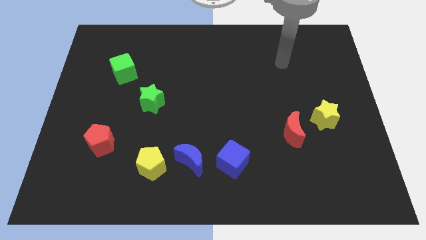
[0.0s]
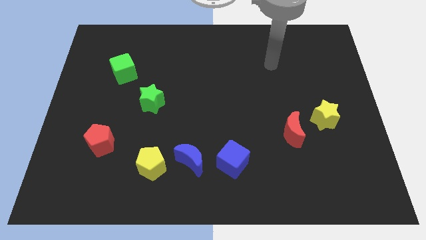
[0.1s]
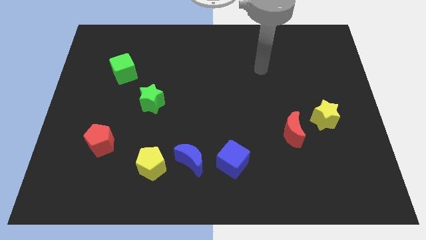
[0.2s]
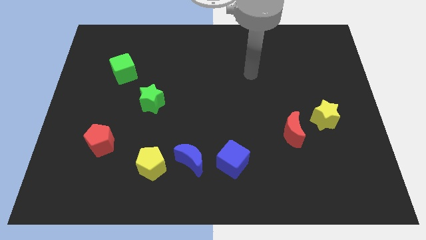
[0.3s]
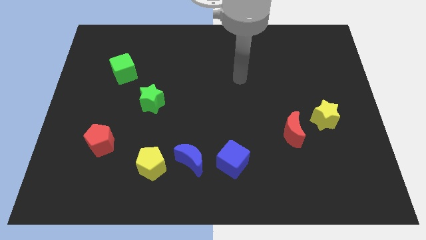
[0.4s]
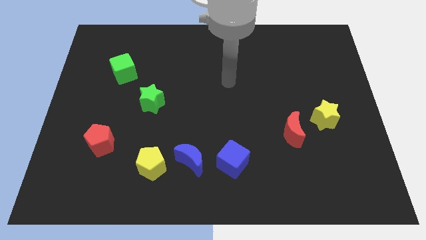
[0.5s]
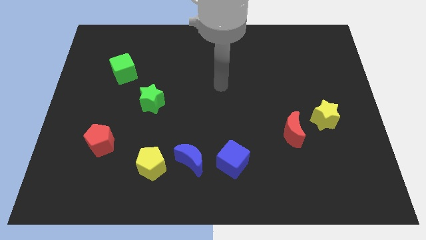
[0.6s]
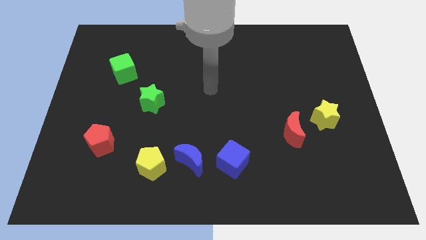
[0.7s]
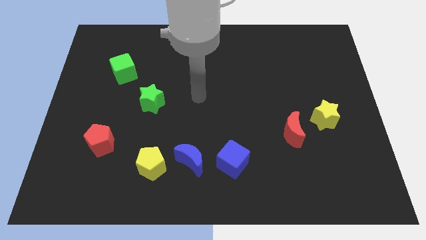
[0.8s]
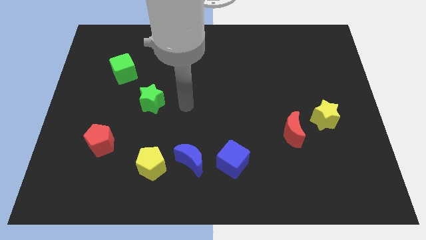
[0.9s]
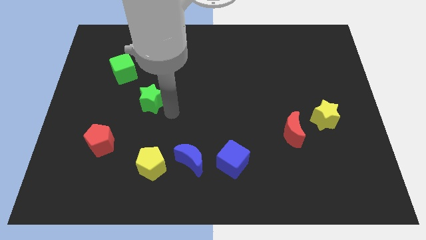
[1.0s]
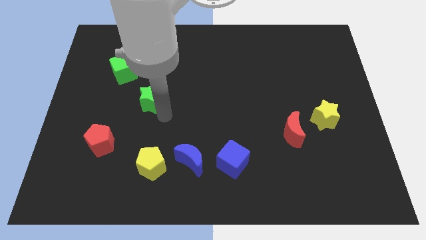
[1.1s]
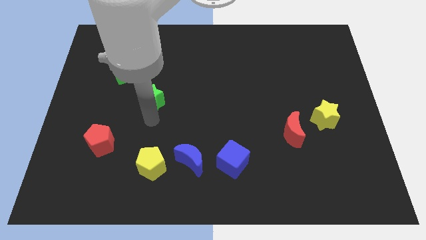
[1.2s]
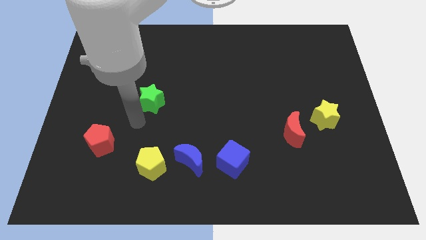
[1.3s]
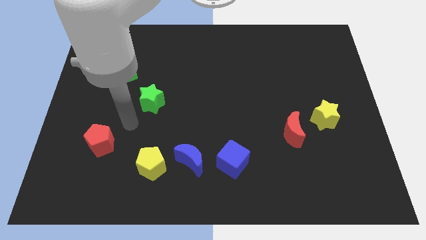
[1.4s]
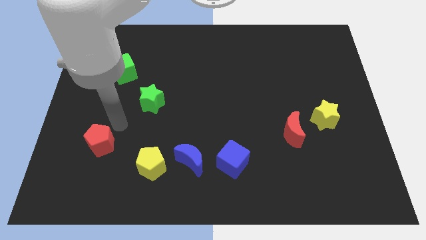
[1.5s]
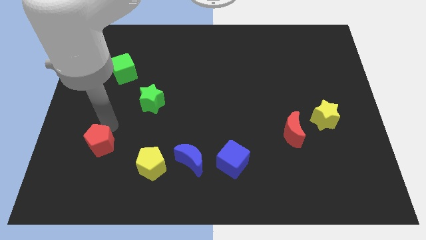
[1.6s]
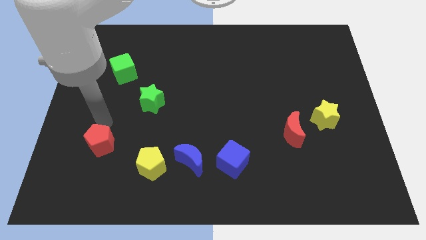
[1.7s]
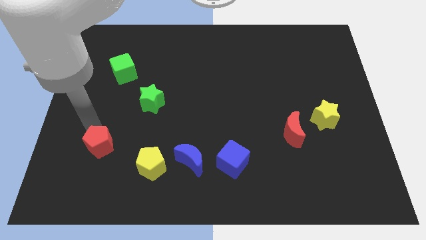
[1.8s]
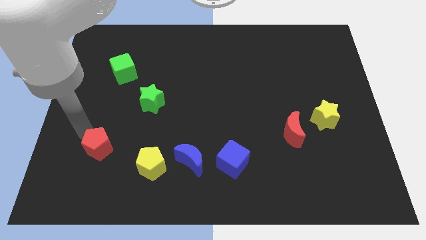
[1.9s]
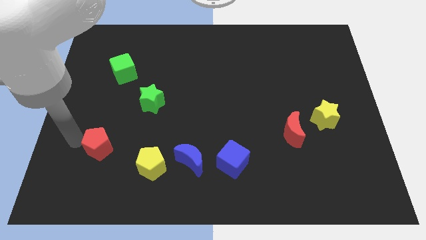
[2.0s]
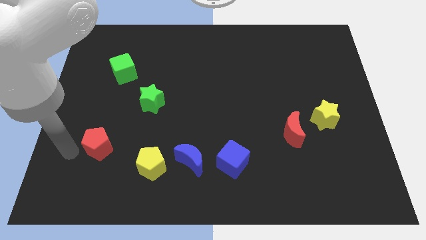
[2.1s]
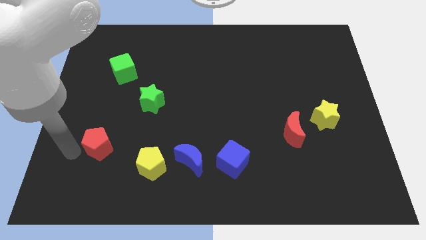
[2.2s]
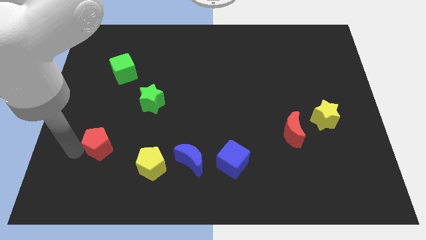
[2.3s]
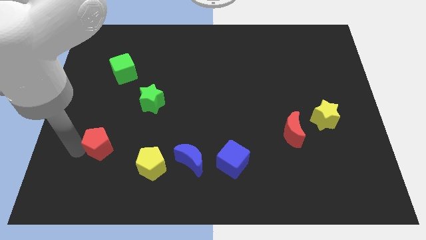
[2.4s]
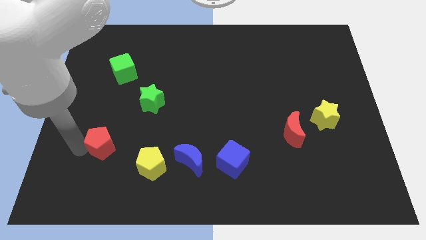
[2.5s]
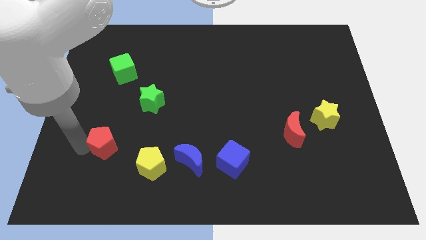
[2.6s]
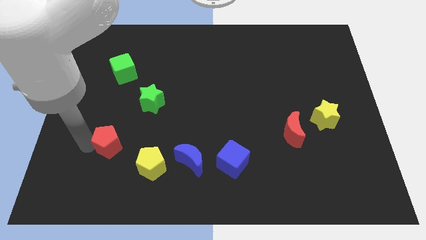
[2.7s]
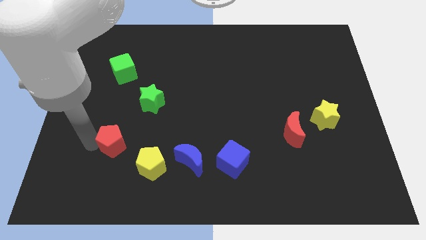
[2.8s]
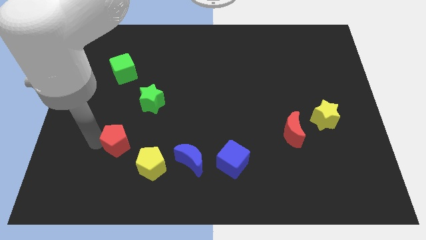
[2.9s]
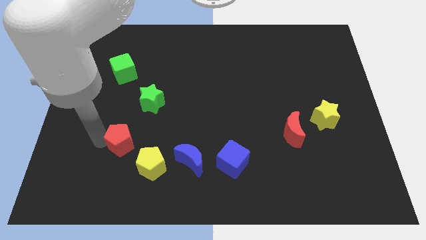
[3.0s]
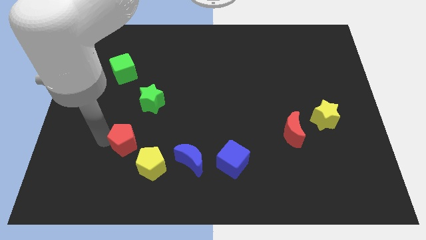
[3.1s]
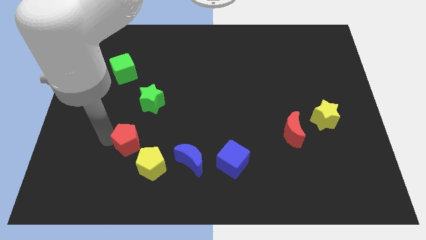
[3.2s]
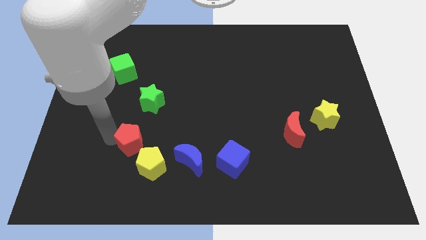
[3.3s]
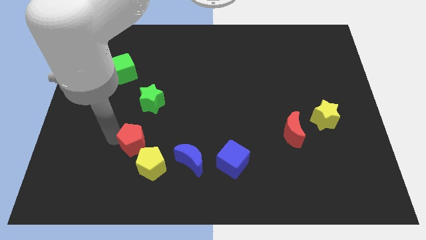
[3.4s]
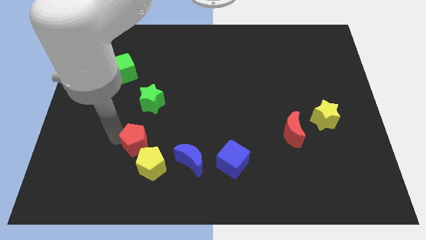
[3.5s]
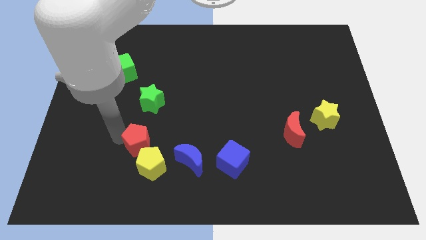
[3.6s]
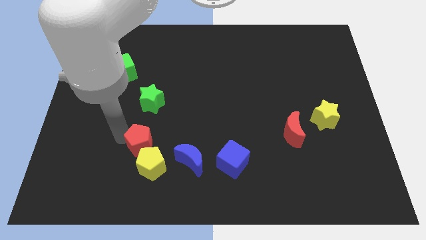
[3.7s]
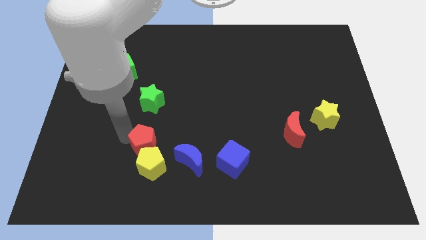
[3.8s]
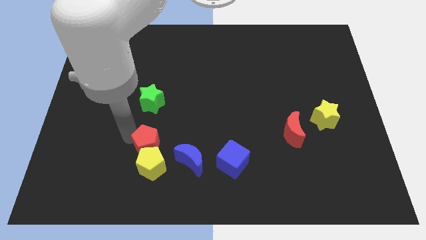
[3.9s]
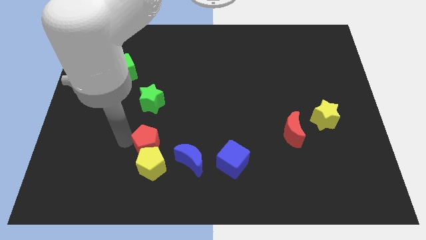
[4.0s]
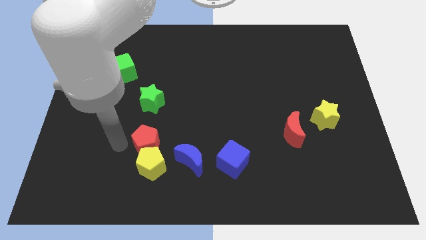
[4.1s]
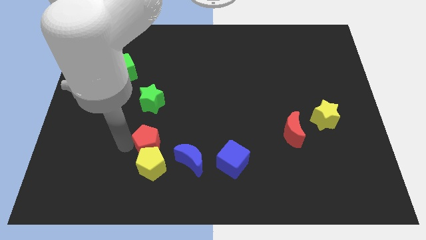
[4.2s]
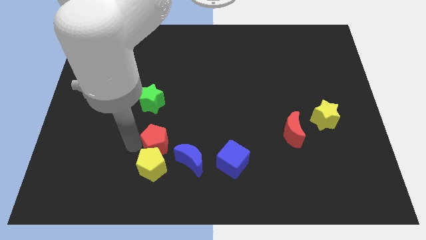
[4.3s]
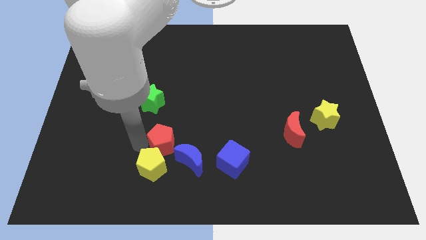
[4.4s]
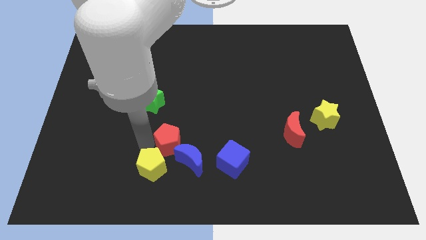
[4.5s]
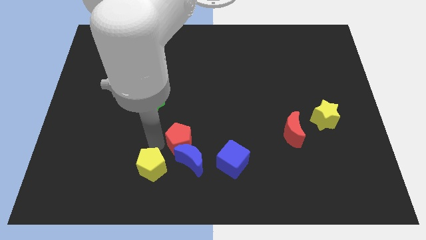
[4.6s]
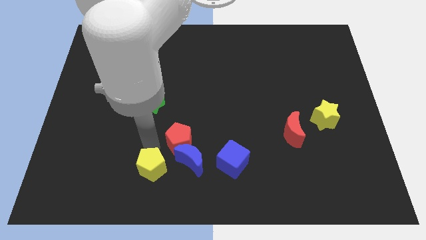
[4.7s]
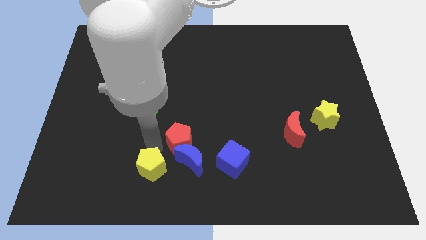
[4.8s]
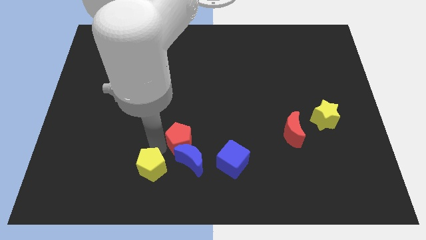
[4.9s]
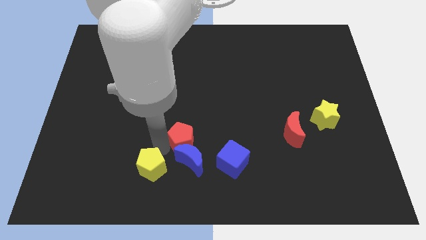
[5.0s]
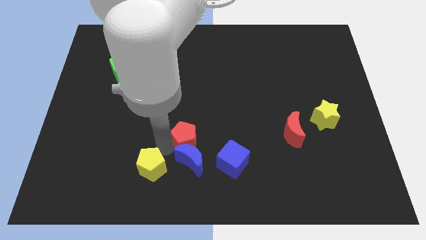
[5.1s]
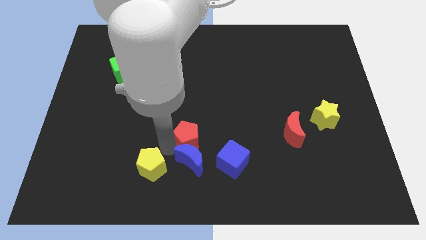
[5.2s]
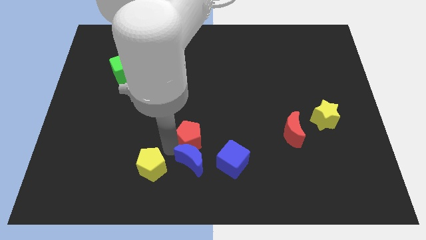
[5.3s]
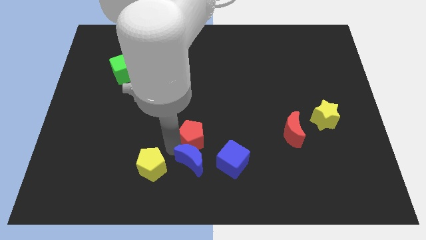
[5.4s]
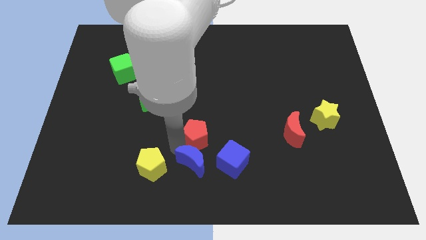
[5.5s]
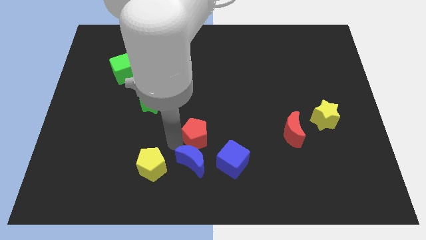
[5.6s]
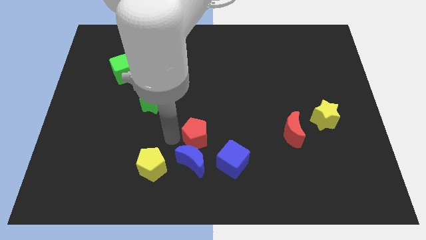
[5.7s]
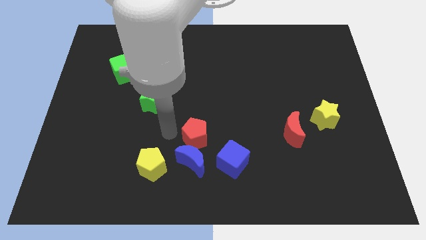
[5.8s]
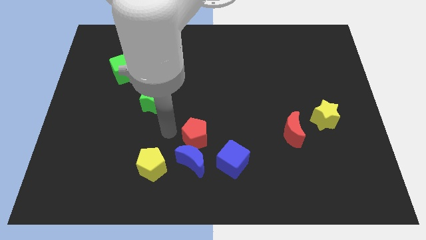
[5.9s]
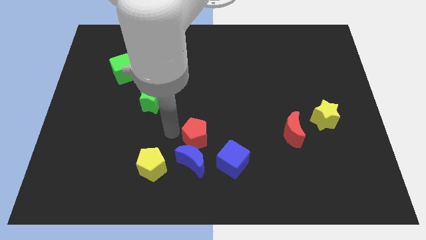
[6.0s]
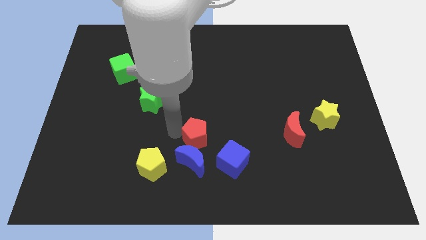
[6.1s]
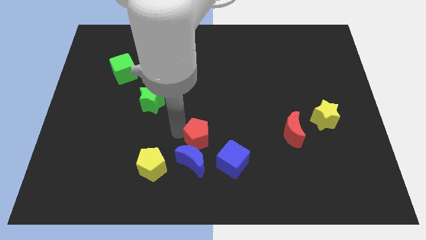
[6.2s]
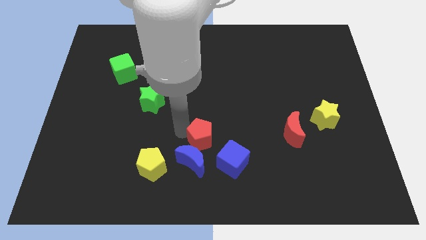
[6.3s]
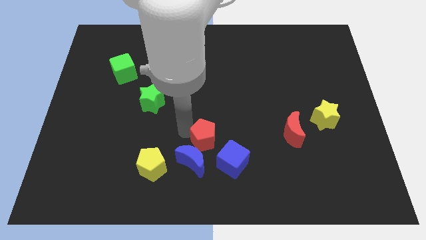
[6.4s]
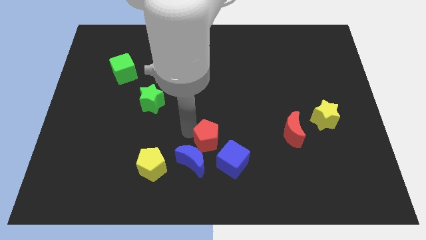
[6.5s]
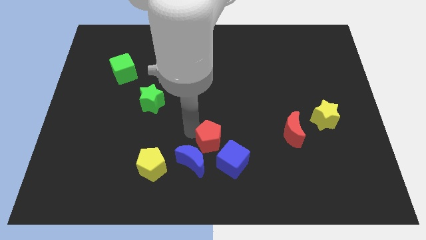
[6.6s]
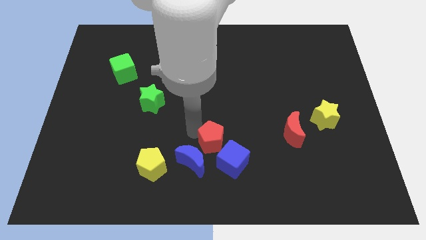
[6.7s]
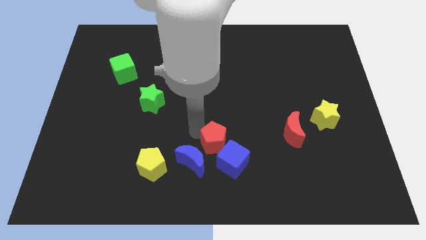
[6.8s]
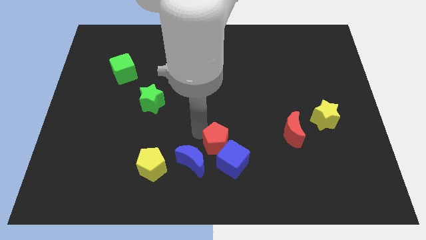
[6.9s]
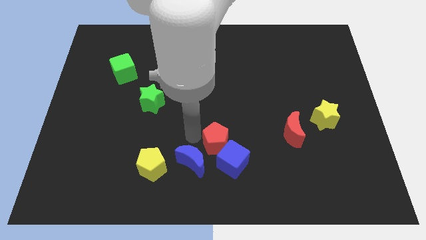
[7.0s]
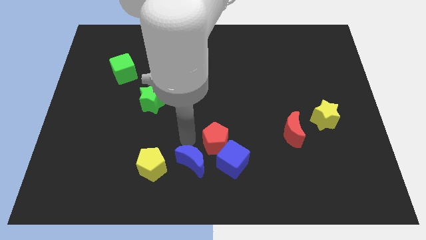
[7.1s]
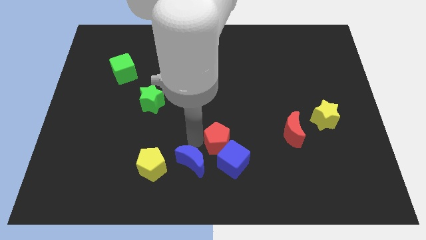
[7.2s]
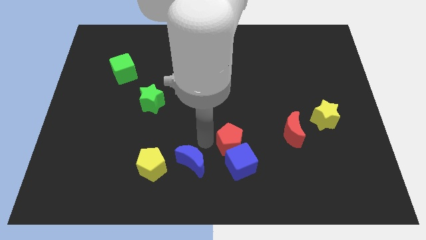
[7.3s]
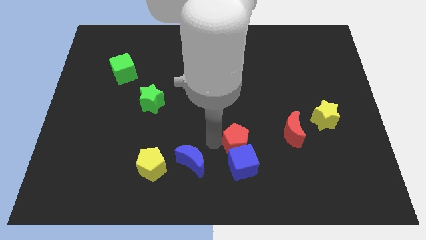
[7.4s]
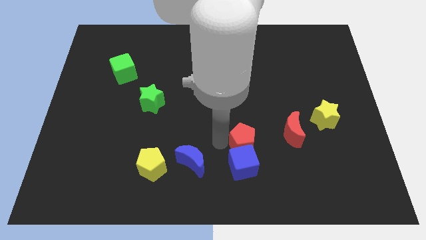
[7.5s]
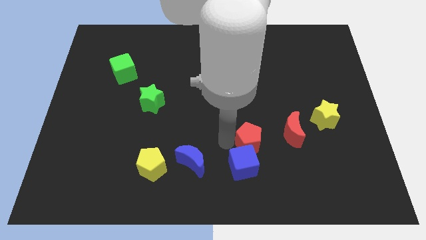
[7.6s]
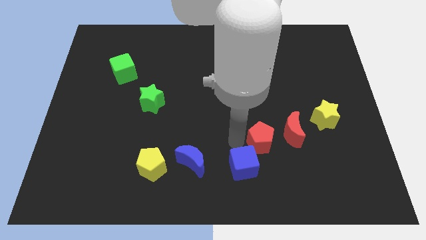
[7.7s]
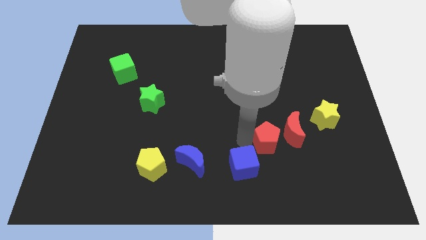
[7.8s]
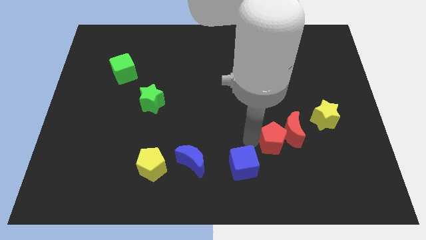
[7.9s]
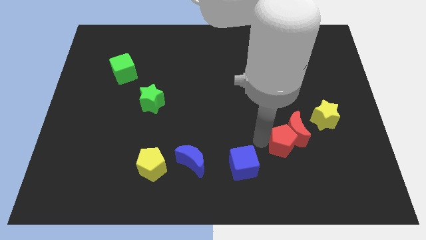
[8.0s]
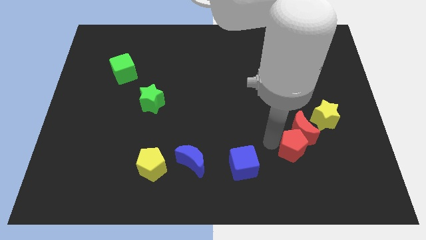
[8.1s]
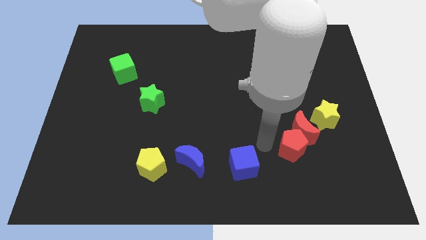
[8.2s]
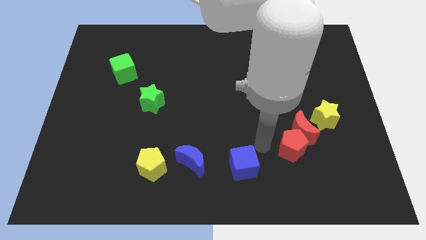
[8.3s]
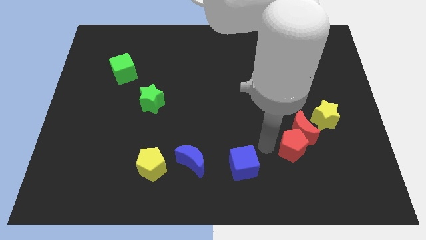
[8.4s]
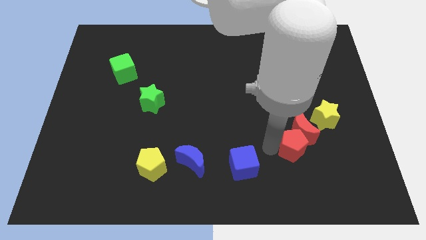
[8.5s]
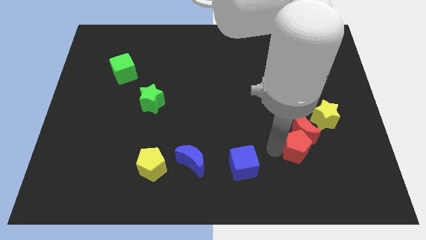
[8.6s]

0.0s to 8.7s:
move the red pentagon to the bottom right side of the red moon
